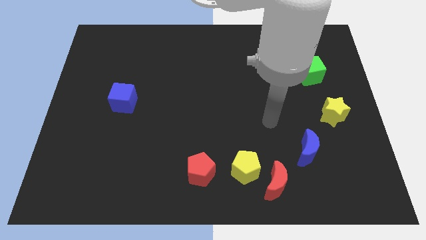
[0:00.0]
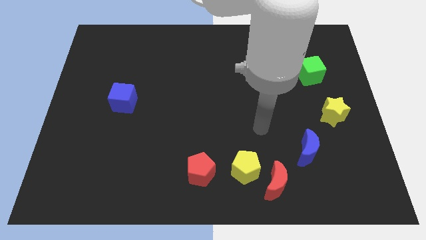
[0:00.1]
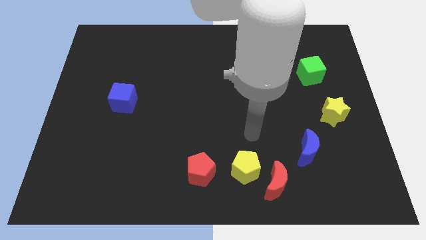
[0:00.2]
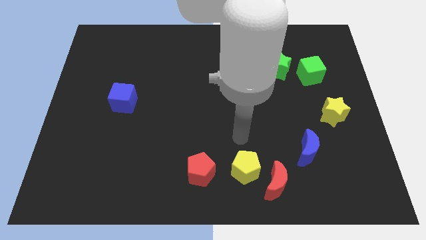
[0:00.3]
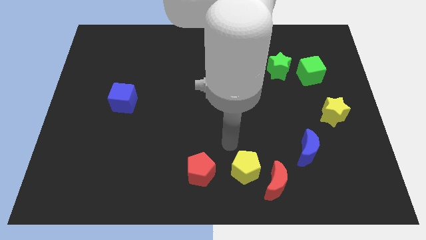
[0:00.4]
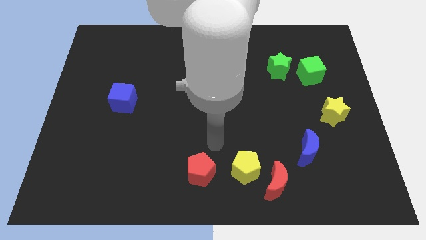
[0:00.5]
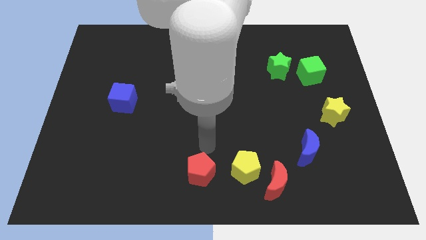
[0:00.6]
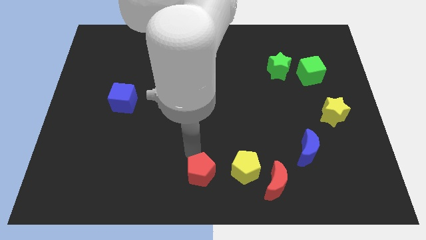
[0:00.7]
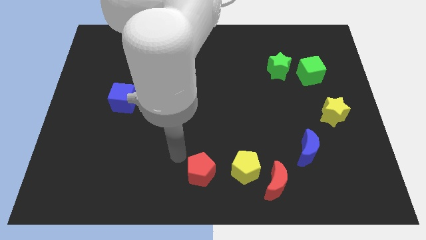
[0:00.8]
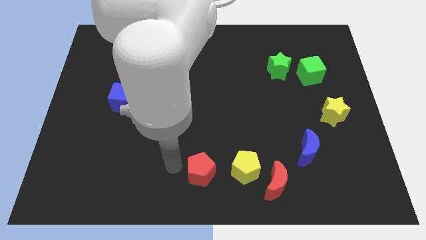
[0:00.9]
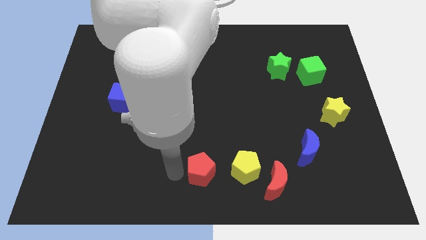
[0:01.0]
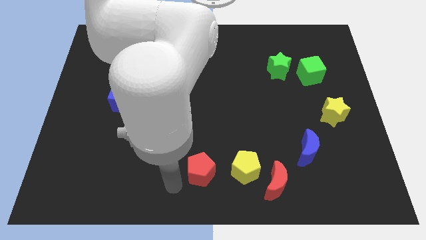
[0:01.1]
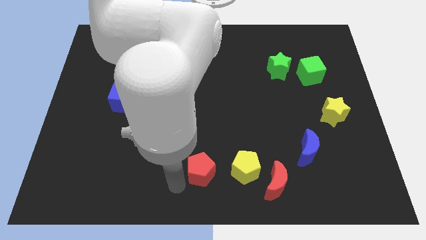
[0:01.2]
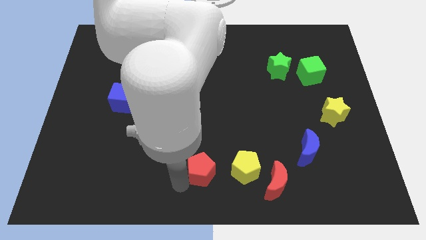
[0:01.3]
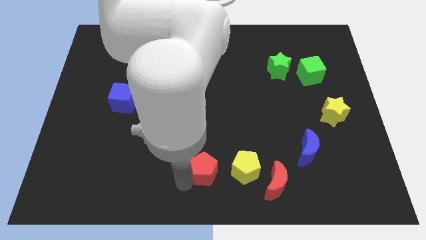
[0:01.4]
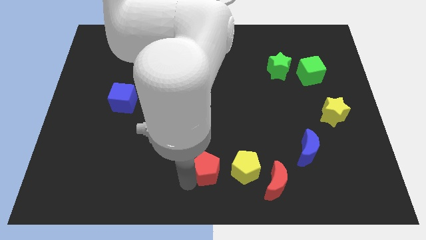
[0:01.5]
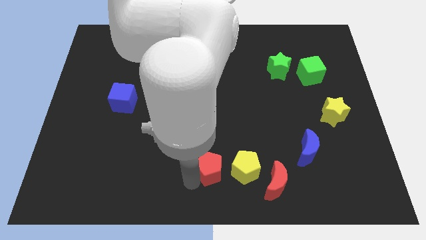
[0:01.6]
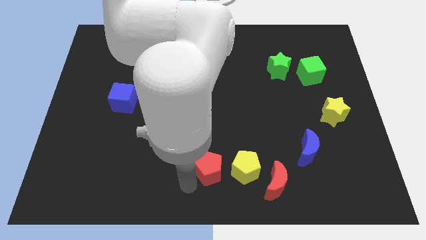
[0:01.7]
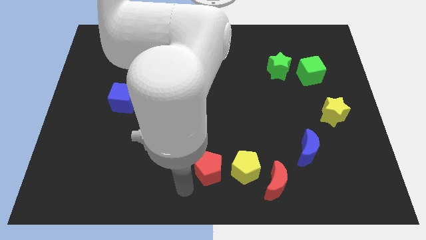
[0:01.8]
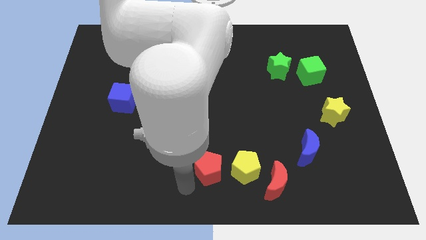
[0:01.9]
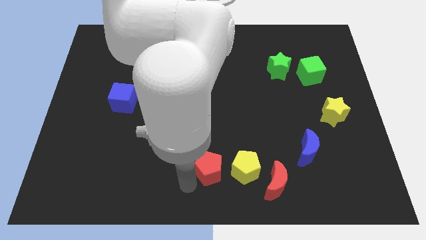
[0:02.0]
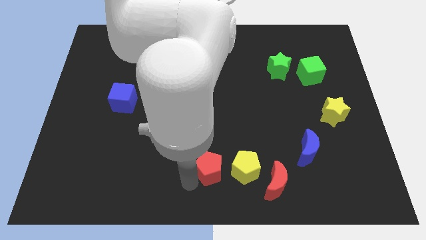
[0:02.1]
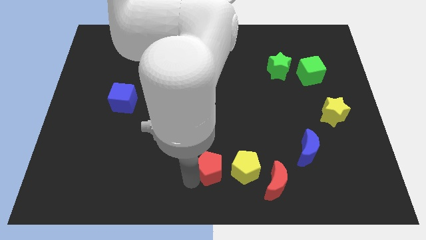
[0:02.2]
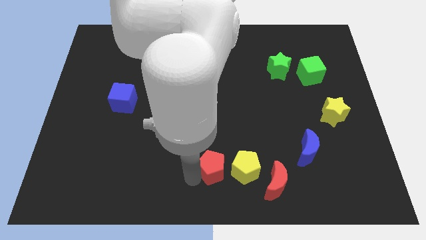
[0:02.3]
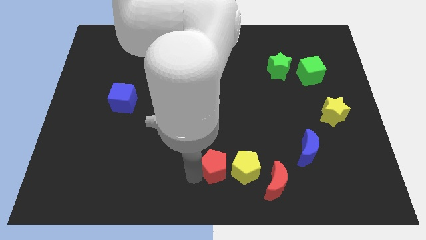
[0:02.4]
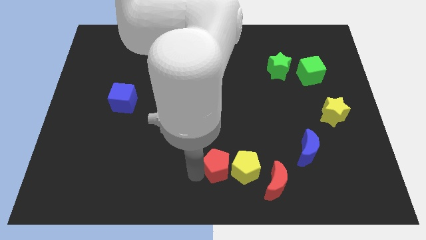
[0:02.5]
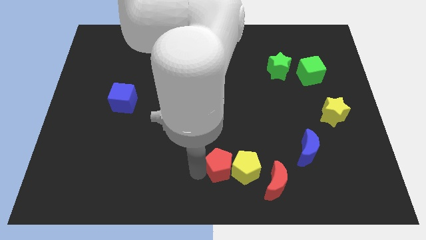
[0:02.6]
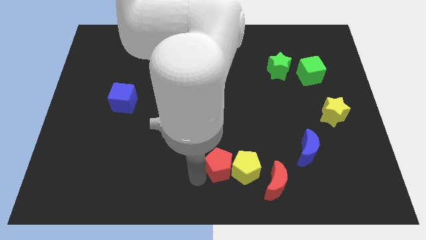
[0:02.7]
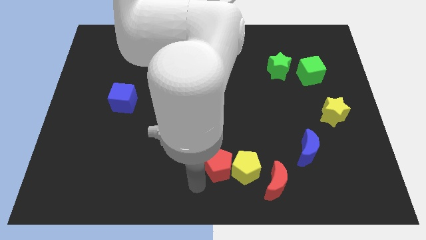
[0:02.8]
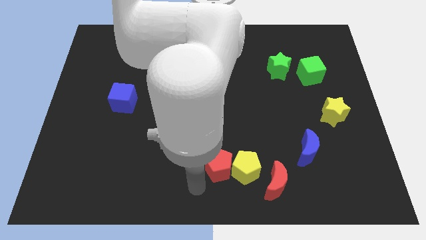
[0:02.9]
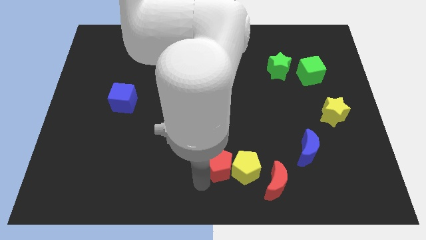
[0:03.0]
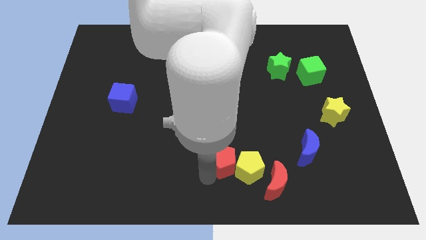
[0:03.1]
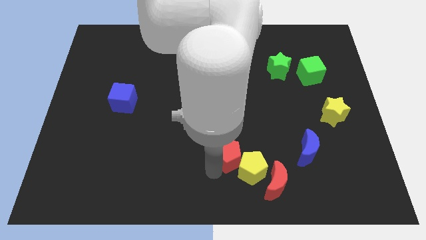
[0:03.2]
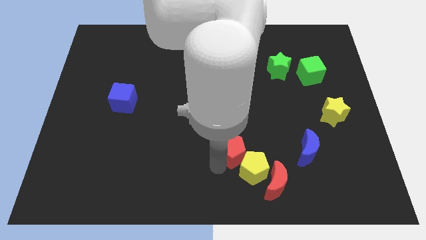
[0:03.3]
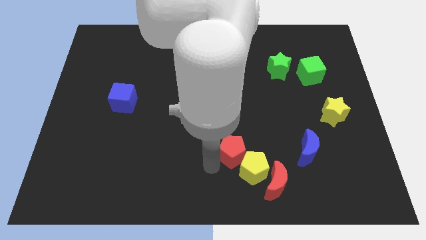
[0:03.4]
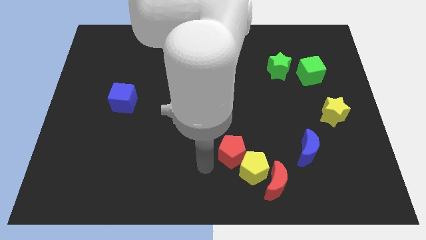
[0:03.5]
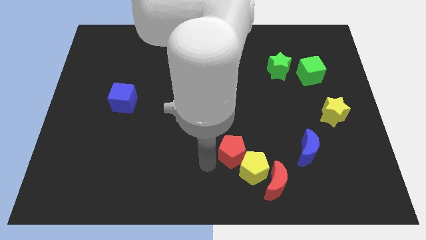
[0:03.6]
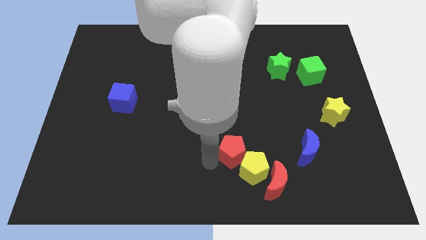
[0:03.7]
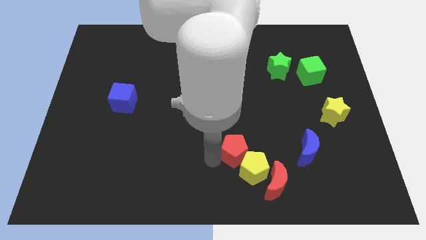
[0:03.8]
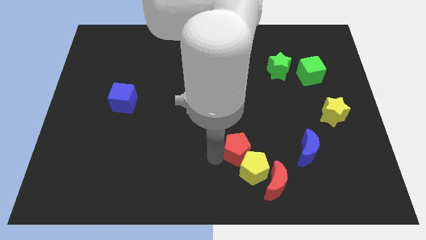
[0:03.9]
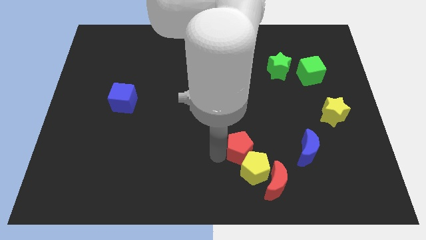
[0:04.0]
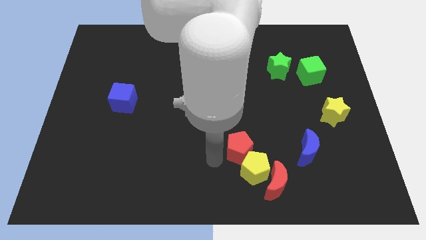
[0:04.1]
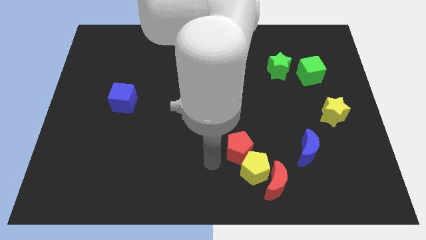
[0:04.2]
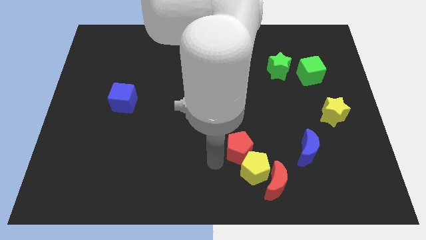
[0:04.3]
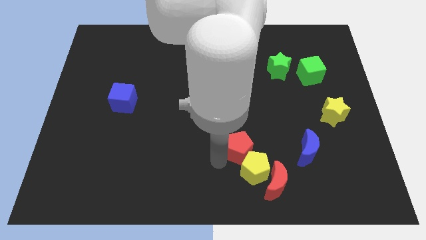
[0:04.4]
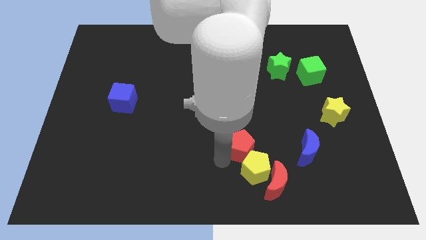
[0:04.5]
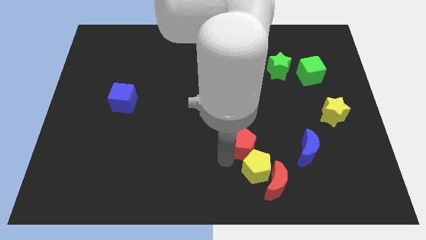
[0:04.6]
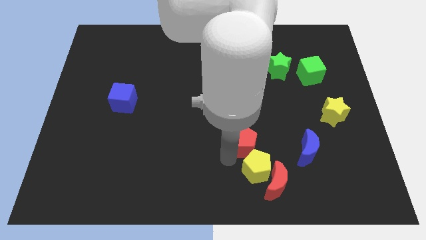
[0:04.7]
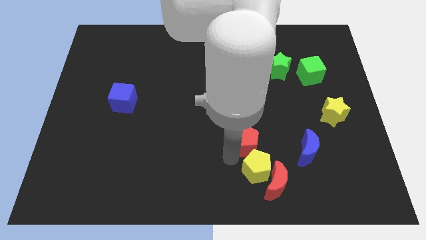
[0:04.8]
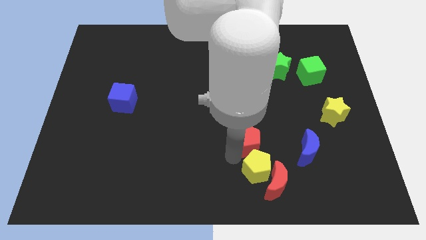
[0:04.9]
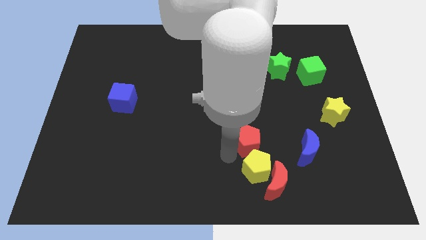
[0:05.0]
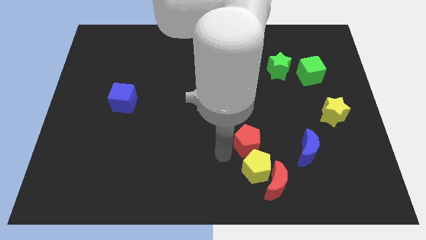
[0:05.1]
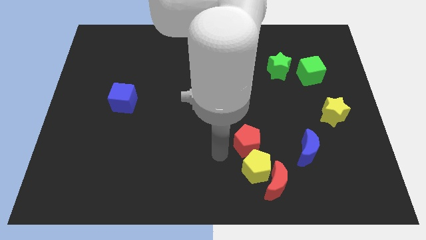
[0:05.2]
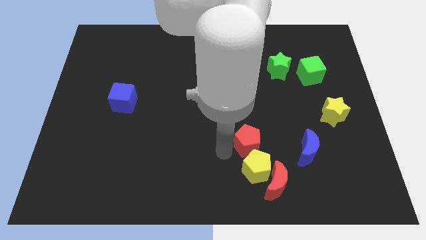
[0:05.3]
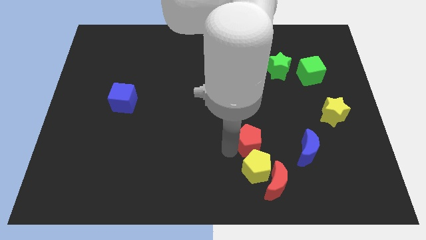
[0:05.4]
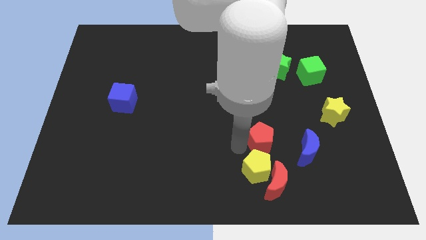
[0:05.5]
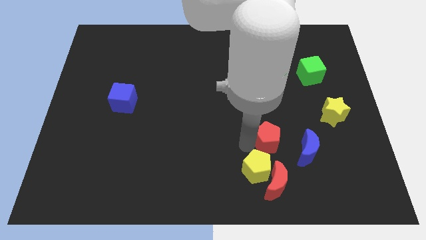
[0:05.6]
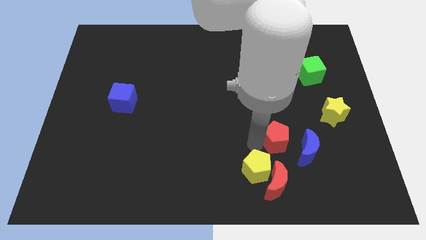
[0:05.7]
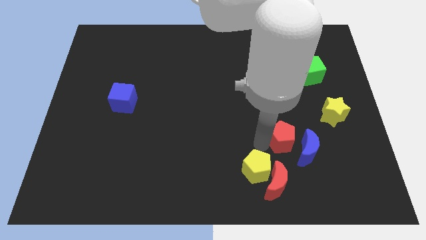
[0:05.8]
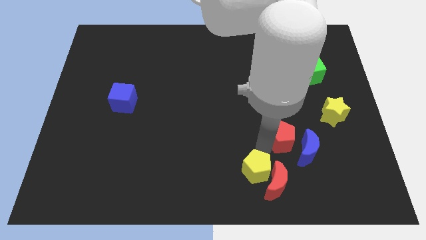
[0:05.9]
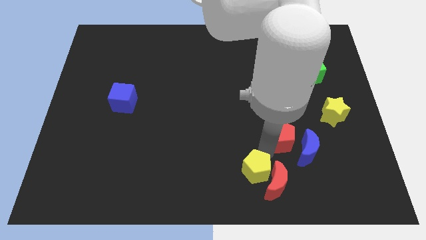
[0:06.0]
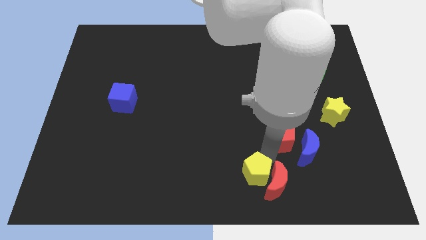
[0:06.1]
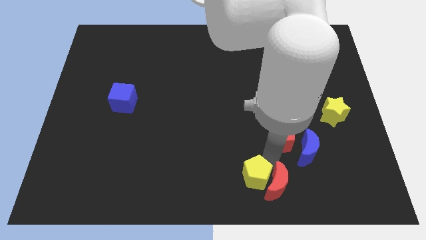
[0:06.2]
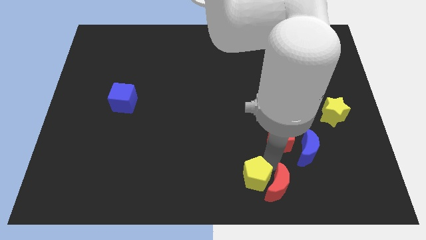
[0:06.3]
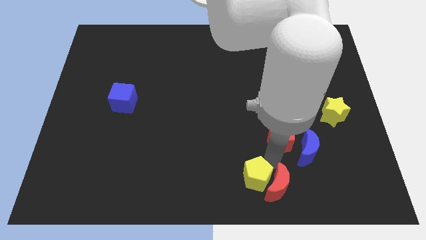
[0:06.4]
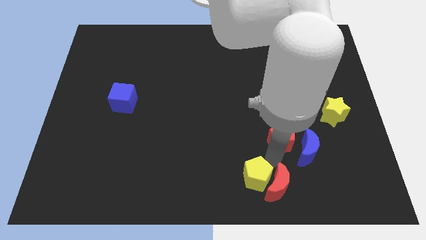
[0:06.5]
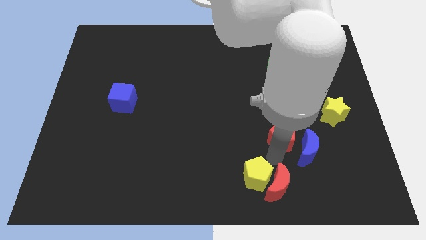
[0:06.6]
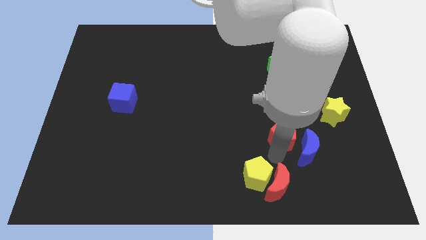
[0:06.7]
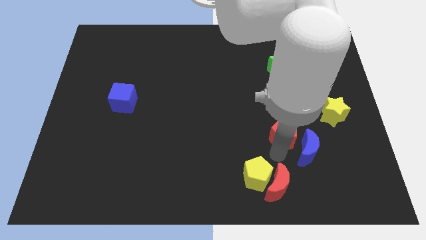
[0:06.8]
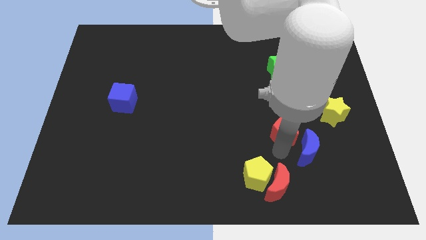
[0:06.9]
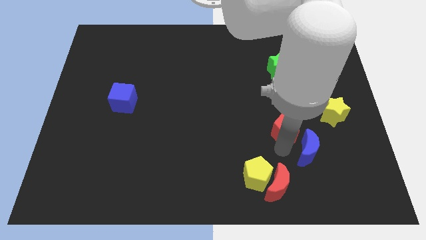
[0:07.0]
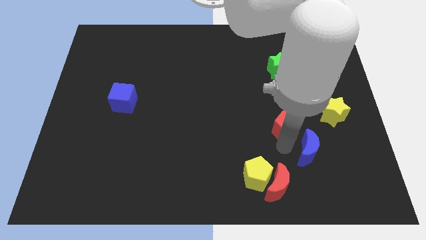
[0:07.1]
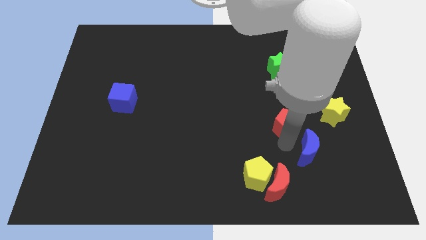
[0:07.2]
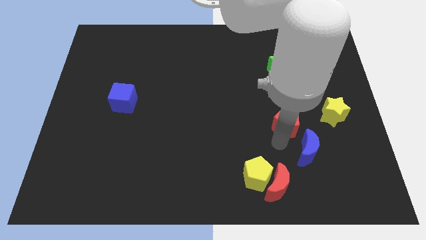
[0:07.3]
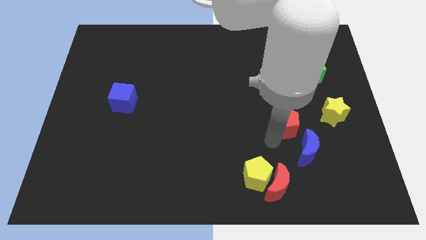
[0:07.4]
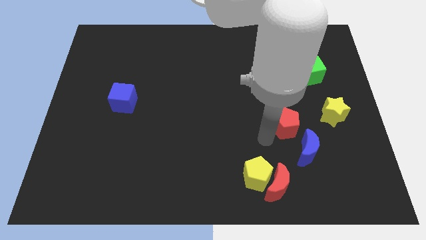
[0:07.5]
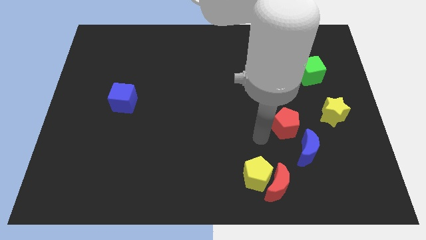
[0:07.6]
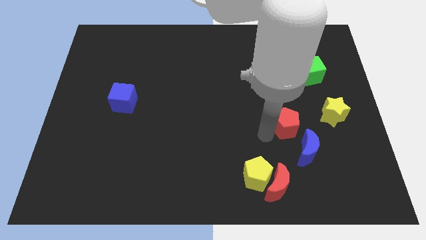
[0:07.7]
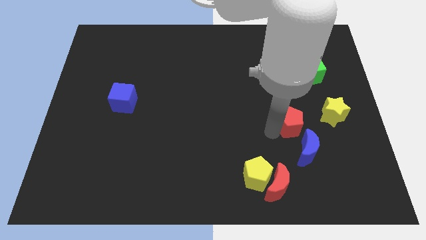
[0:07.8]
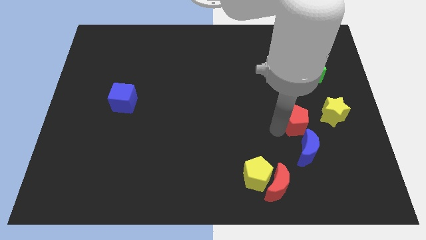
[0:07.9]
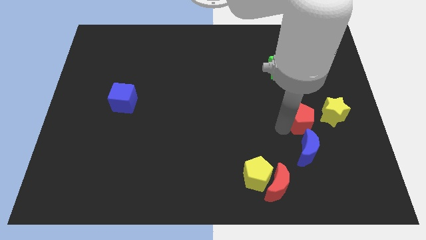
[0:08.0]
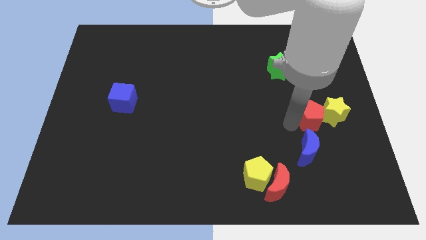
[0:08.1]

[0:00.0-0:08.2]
push the red pentagon to the yellow star
